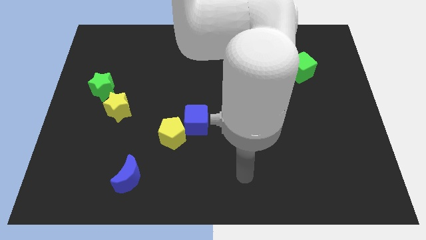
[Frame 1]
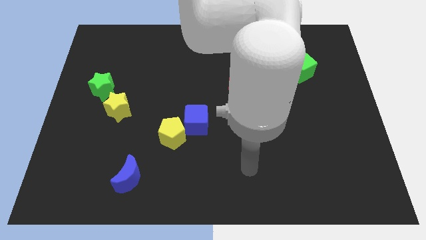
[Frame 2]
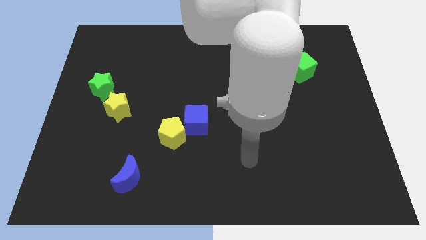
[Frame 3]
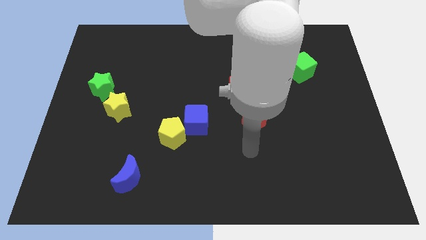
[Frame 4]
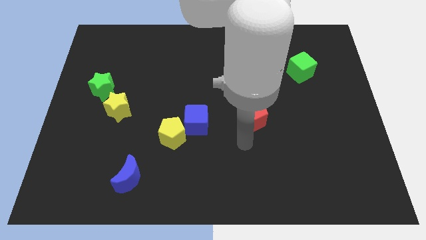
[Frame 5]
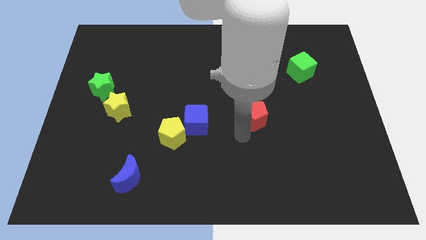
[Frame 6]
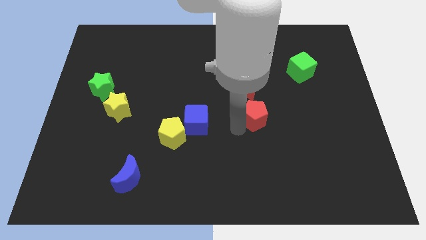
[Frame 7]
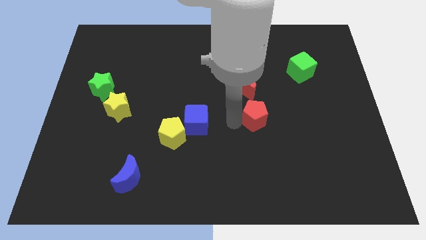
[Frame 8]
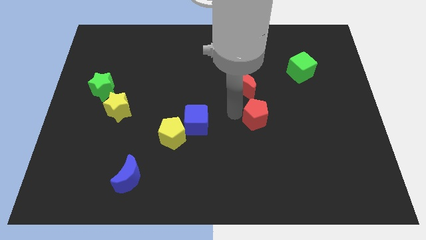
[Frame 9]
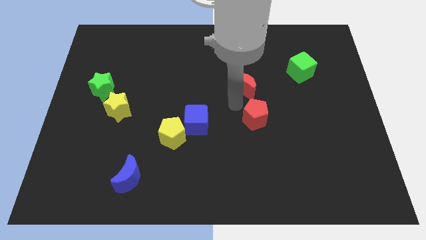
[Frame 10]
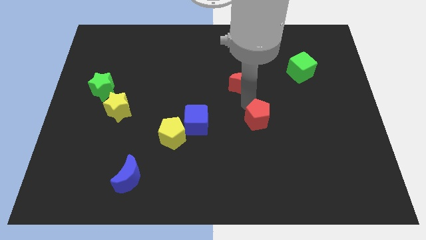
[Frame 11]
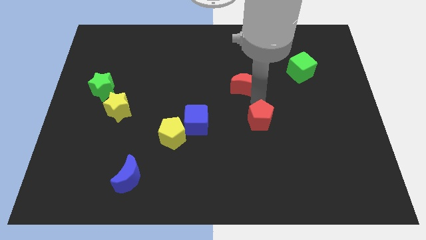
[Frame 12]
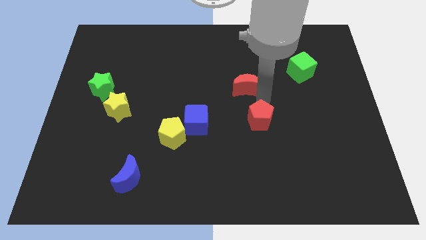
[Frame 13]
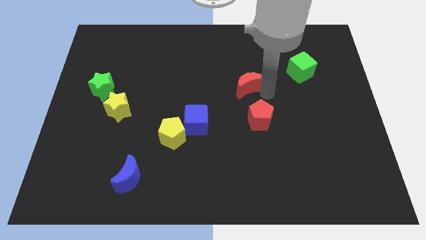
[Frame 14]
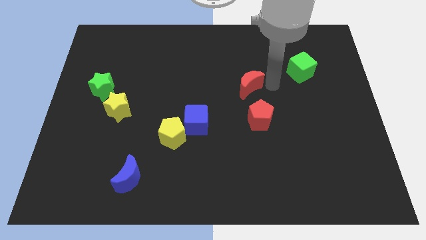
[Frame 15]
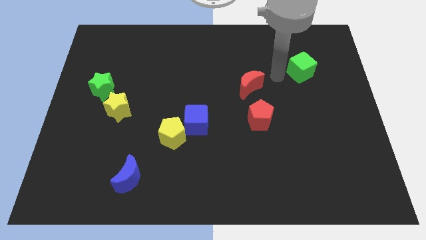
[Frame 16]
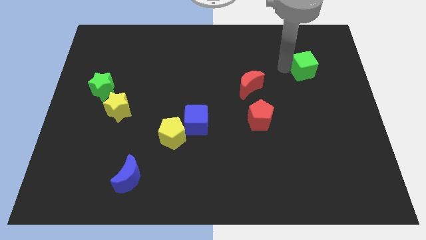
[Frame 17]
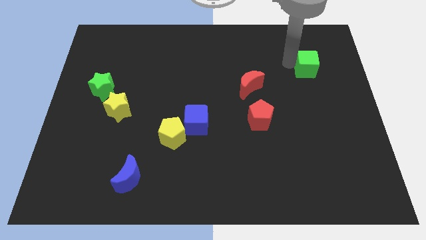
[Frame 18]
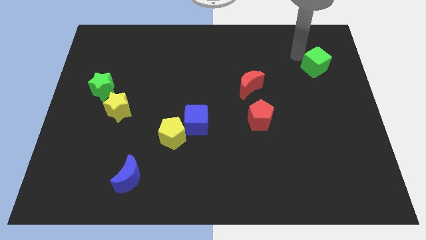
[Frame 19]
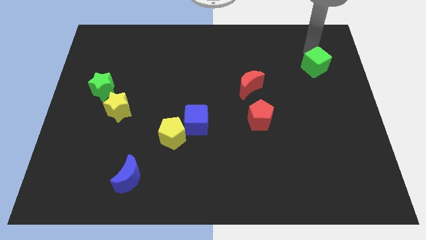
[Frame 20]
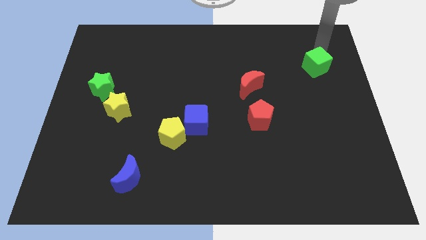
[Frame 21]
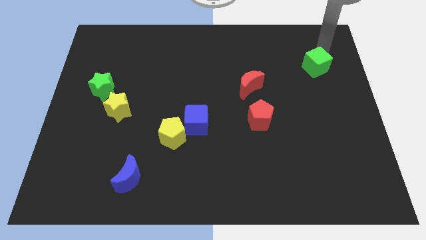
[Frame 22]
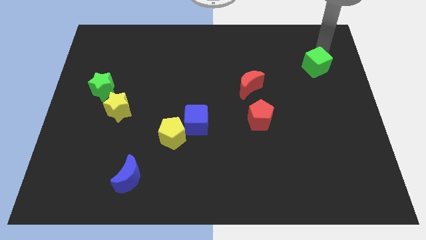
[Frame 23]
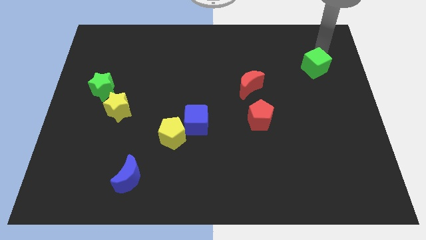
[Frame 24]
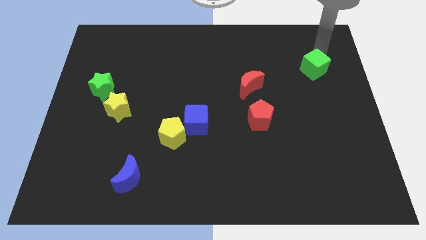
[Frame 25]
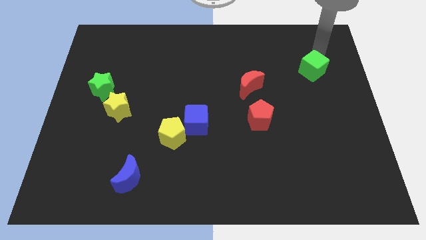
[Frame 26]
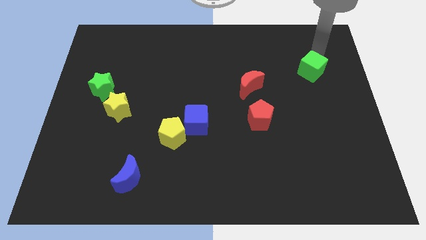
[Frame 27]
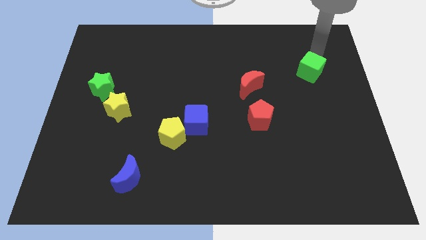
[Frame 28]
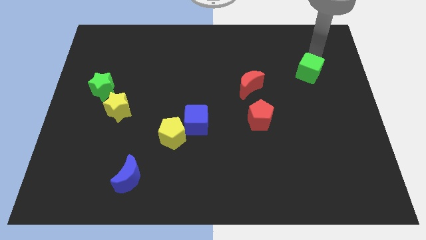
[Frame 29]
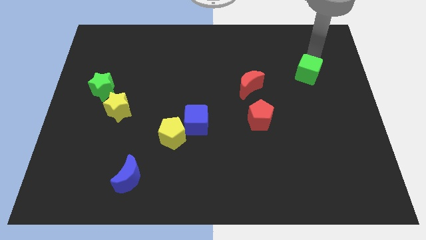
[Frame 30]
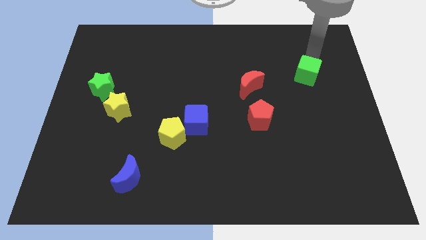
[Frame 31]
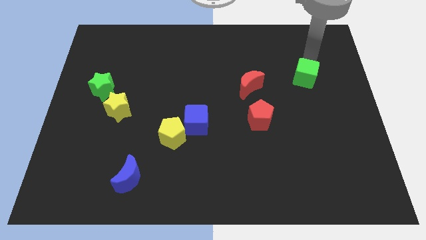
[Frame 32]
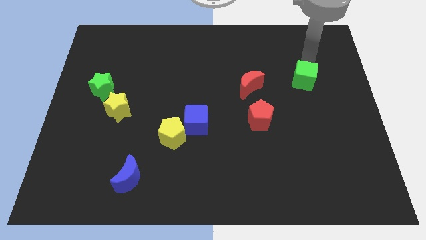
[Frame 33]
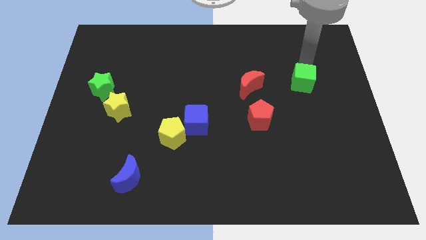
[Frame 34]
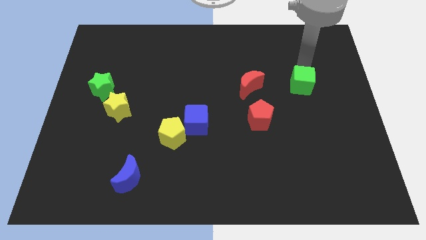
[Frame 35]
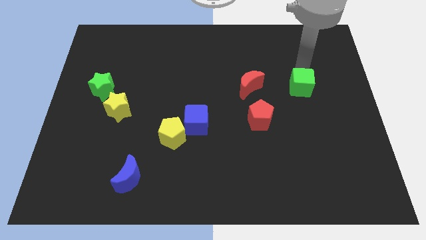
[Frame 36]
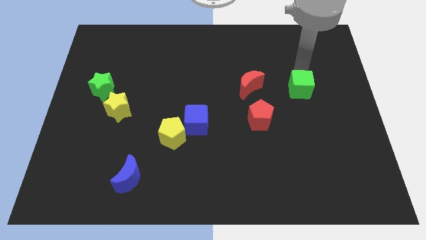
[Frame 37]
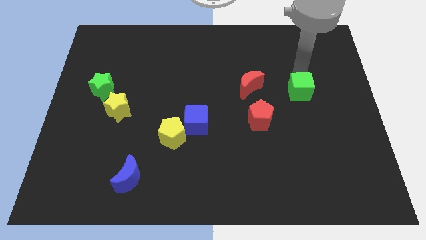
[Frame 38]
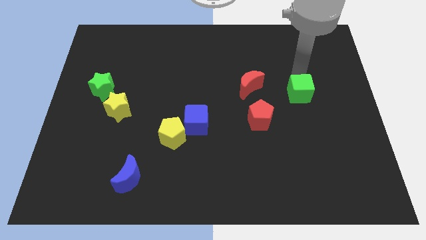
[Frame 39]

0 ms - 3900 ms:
move the green cube a little downwards

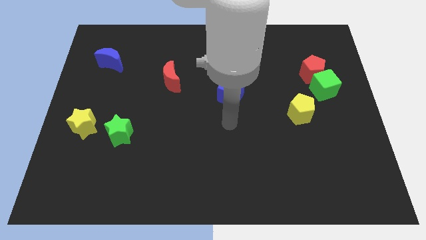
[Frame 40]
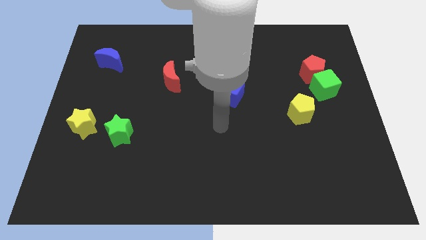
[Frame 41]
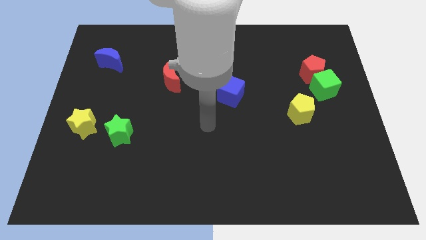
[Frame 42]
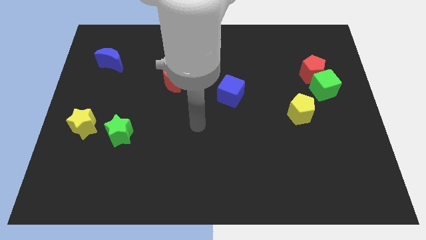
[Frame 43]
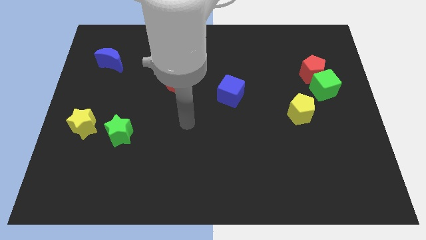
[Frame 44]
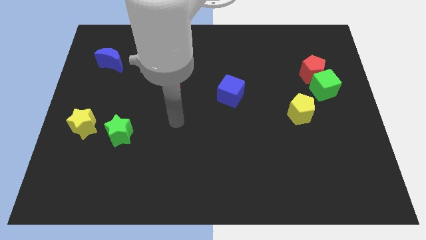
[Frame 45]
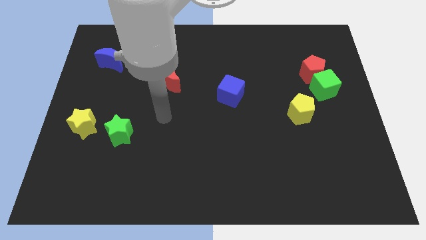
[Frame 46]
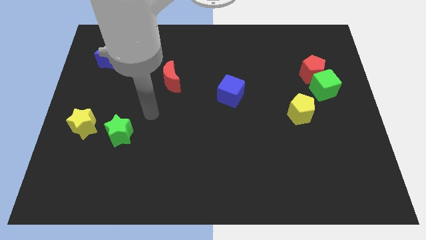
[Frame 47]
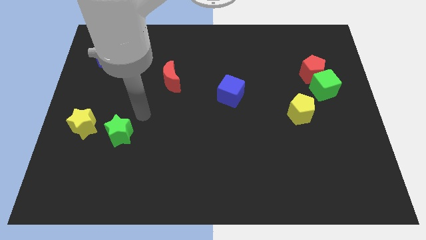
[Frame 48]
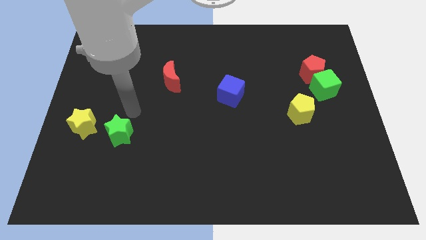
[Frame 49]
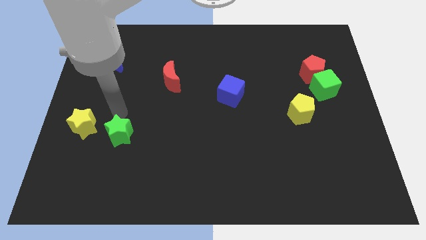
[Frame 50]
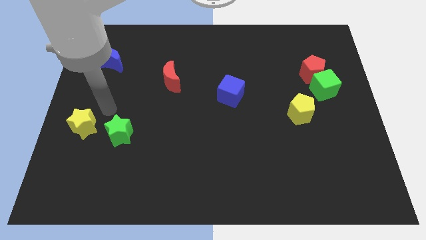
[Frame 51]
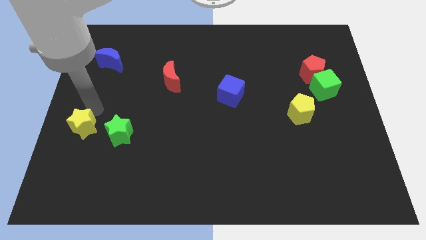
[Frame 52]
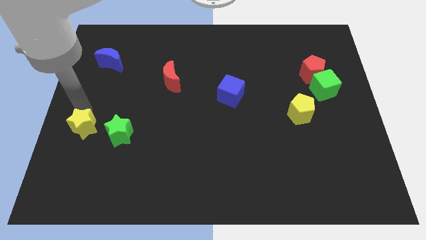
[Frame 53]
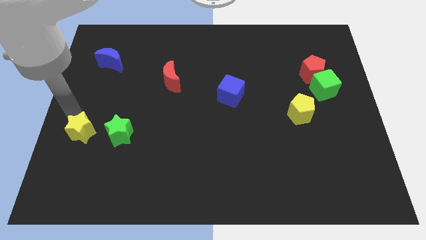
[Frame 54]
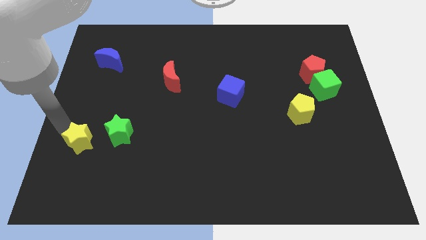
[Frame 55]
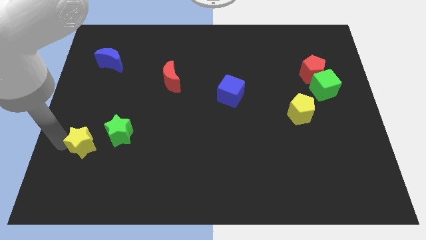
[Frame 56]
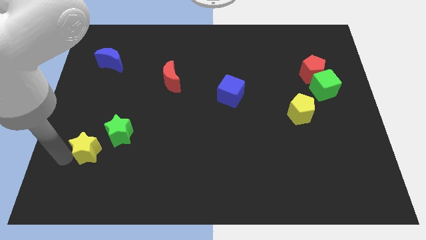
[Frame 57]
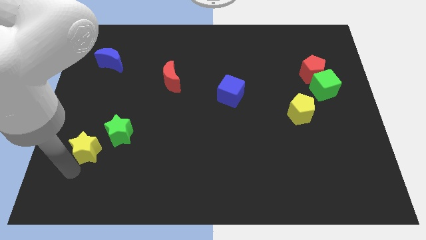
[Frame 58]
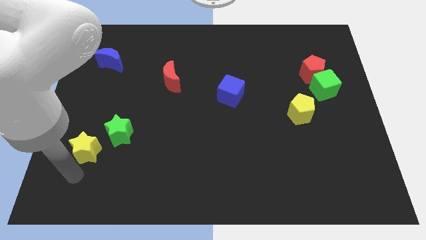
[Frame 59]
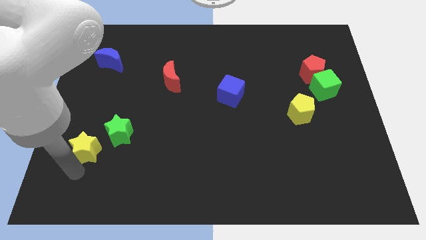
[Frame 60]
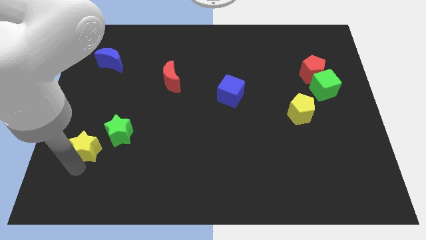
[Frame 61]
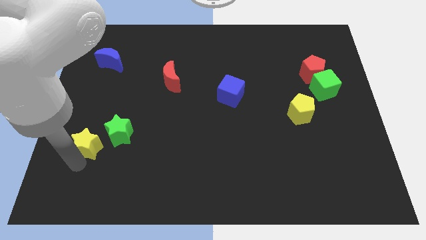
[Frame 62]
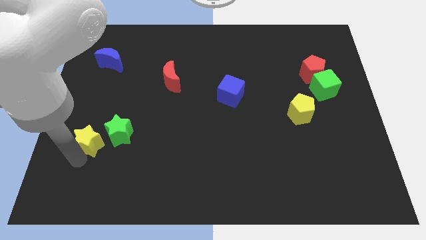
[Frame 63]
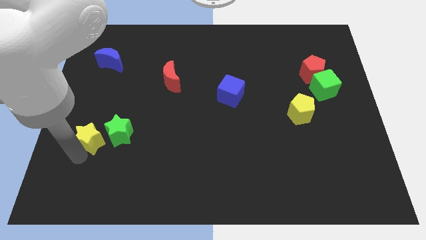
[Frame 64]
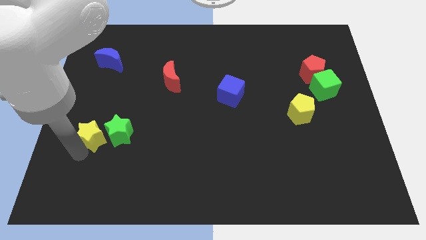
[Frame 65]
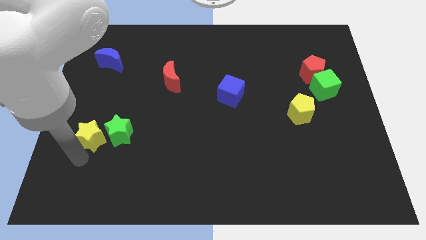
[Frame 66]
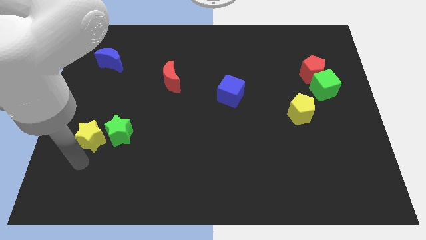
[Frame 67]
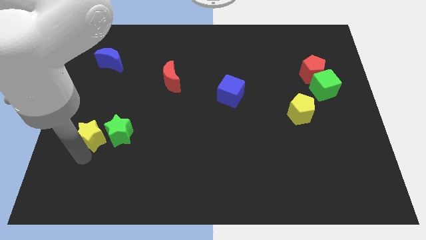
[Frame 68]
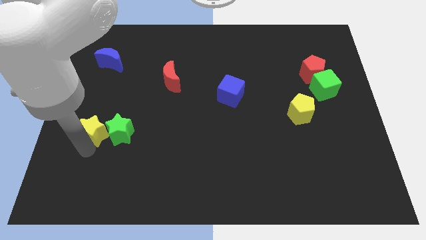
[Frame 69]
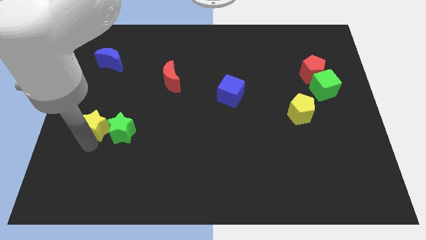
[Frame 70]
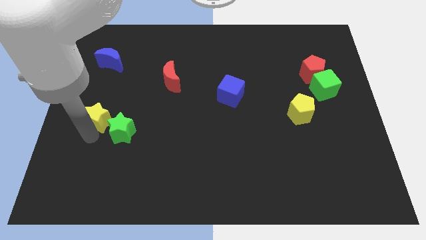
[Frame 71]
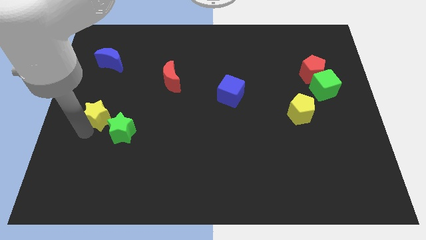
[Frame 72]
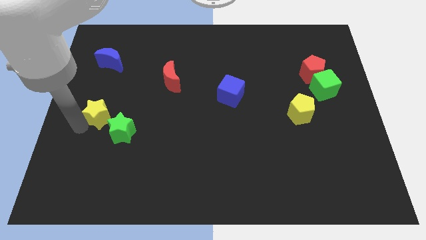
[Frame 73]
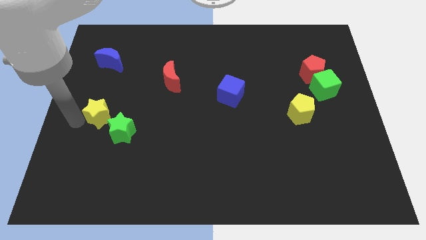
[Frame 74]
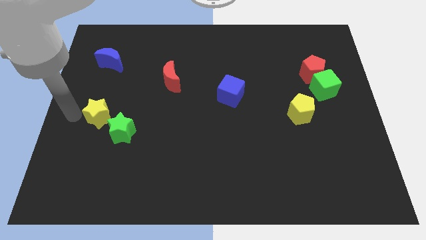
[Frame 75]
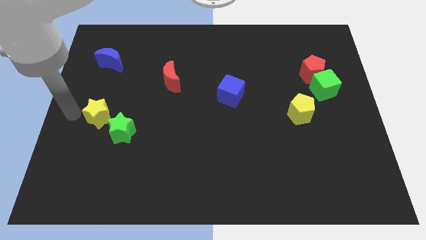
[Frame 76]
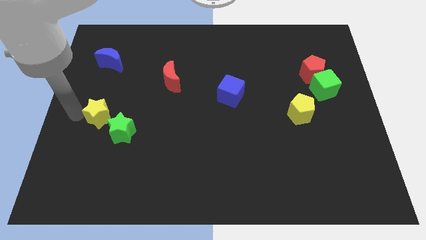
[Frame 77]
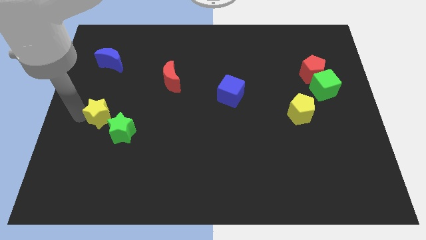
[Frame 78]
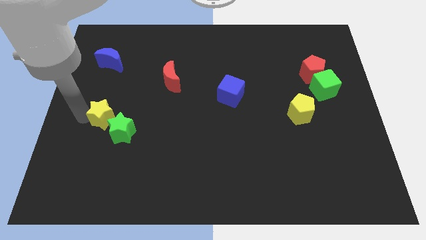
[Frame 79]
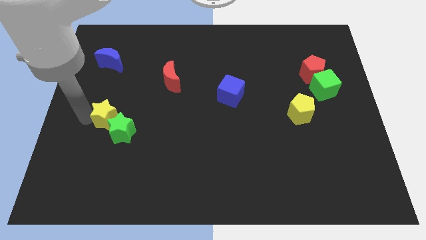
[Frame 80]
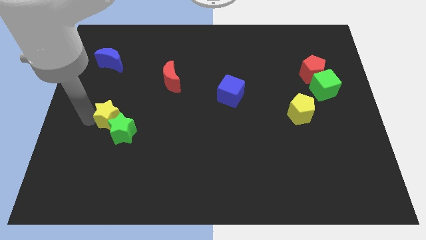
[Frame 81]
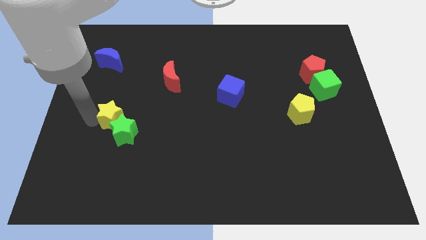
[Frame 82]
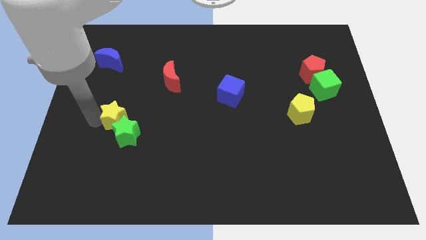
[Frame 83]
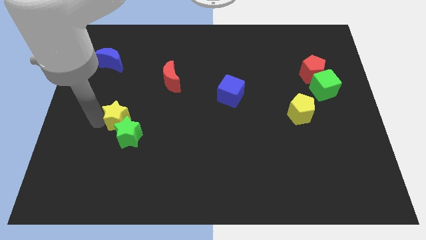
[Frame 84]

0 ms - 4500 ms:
push the yellow star to the right slightly

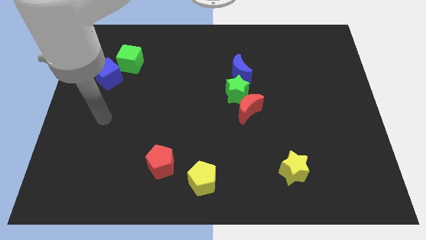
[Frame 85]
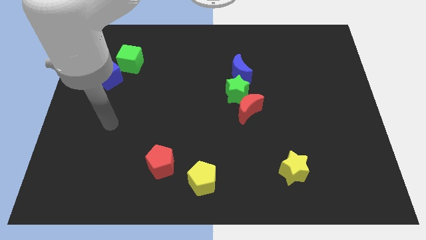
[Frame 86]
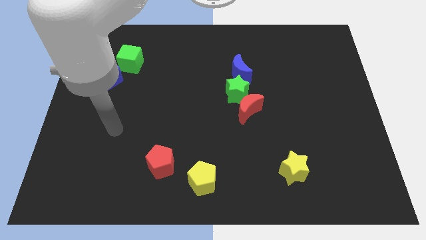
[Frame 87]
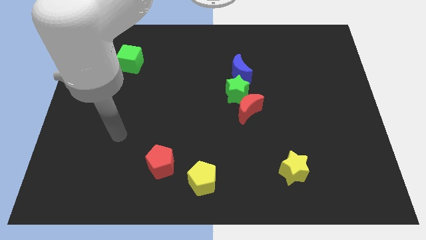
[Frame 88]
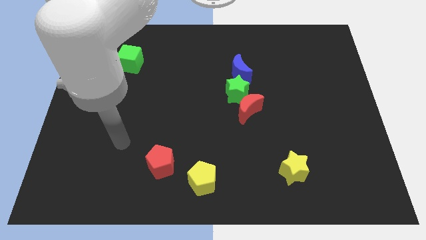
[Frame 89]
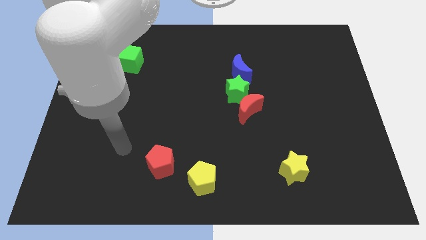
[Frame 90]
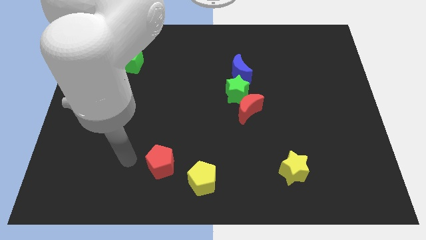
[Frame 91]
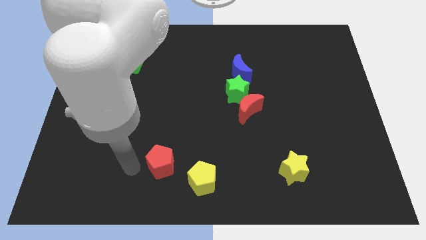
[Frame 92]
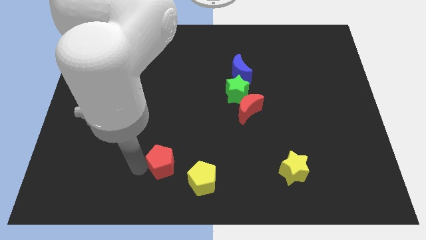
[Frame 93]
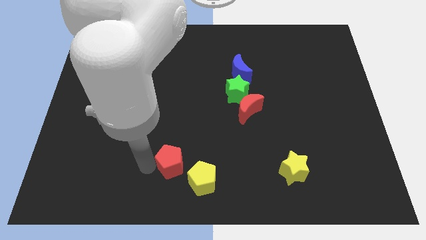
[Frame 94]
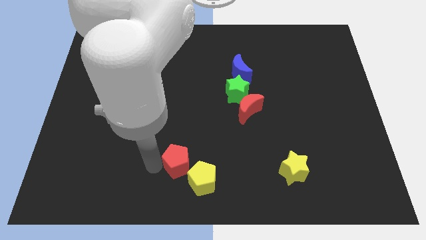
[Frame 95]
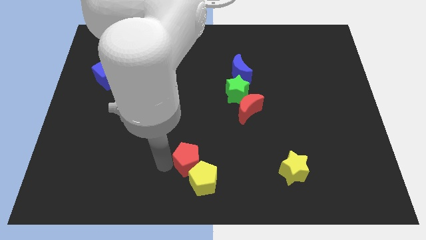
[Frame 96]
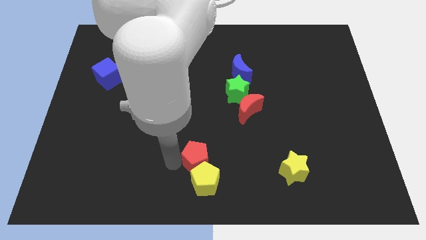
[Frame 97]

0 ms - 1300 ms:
push the red pentagon somewhat right
